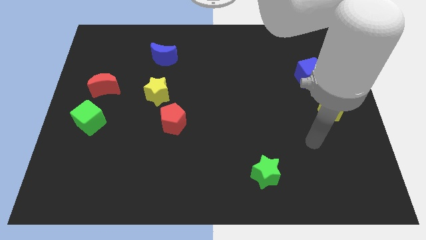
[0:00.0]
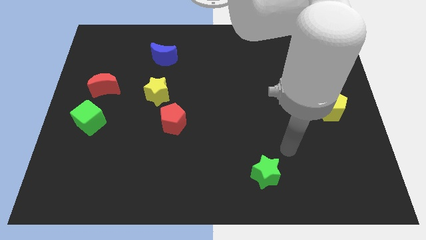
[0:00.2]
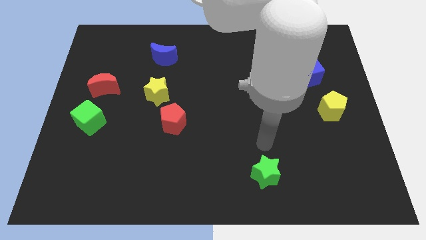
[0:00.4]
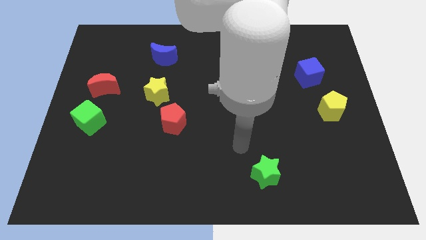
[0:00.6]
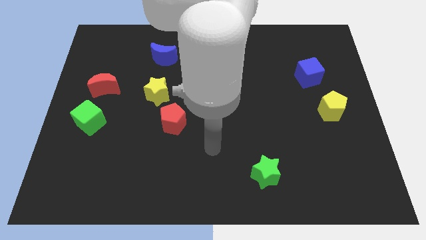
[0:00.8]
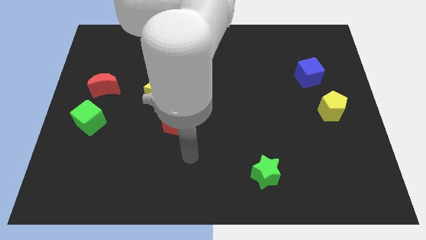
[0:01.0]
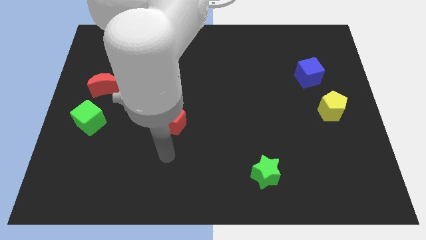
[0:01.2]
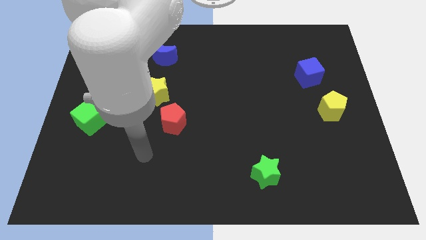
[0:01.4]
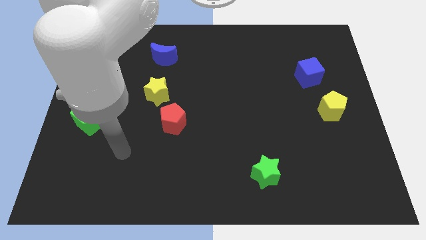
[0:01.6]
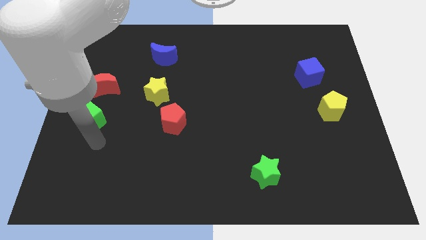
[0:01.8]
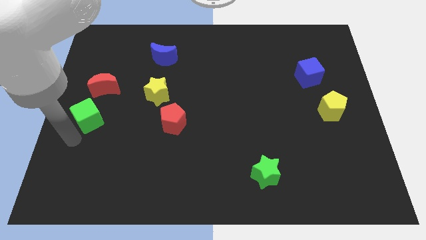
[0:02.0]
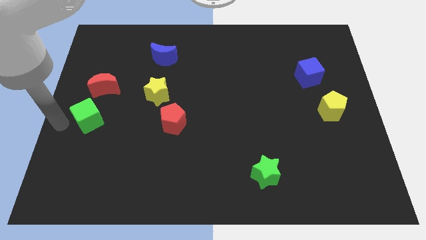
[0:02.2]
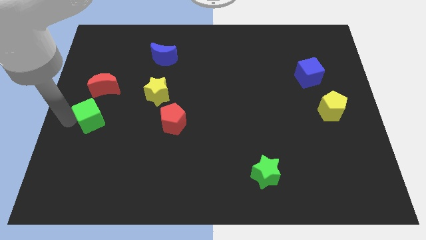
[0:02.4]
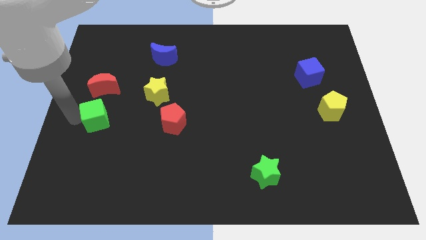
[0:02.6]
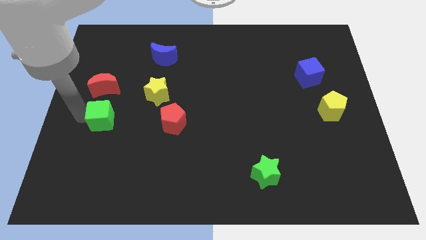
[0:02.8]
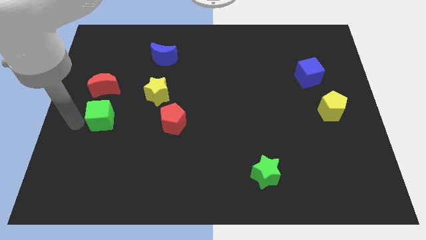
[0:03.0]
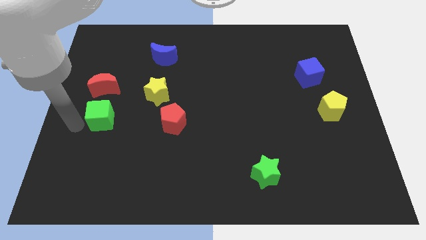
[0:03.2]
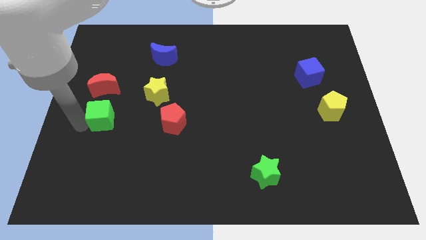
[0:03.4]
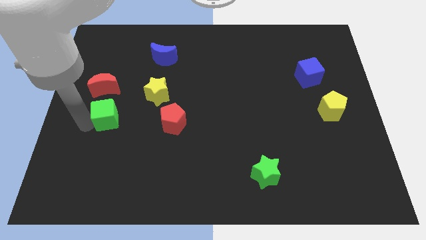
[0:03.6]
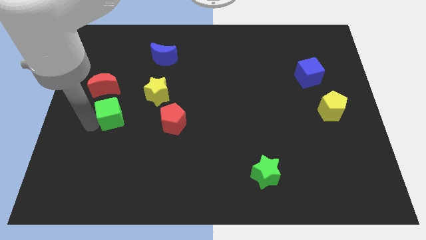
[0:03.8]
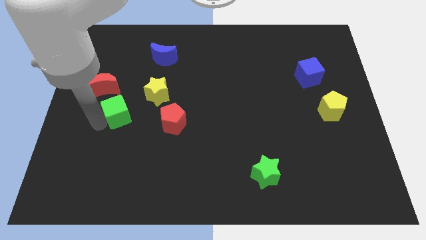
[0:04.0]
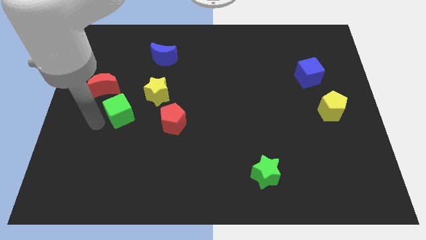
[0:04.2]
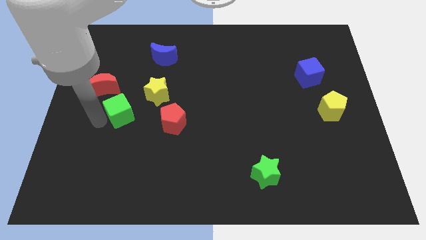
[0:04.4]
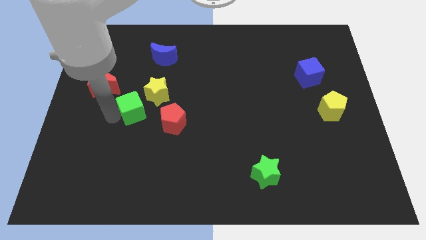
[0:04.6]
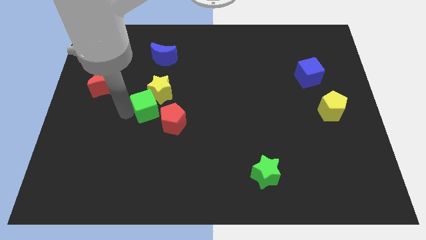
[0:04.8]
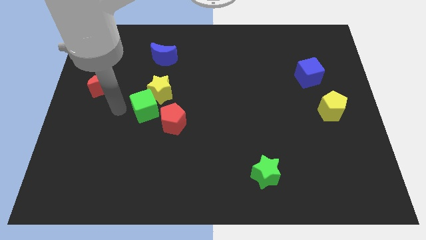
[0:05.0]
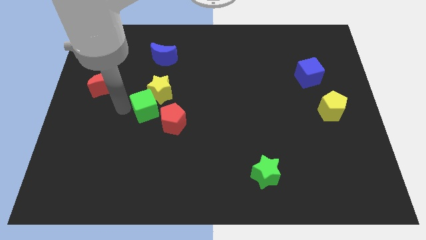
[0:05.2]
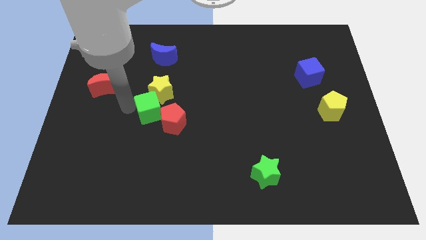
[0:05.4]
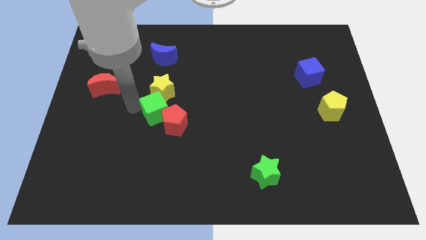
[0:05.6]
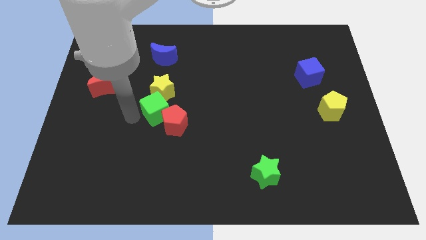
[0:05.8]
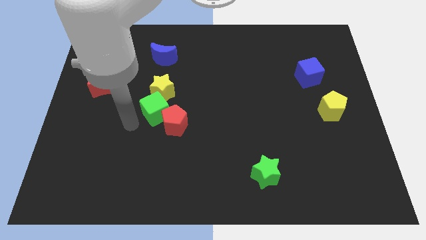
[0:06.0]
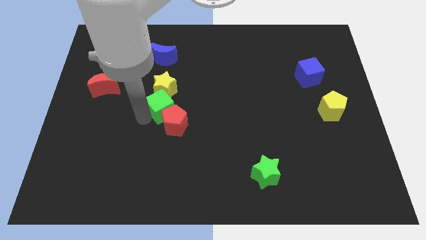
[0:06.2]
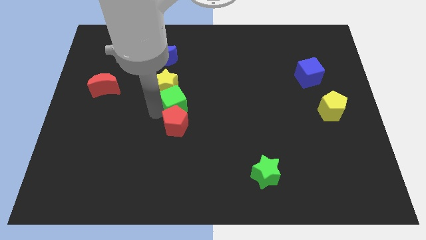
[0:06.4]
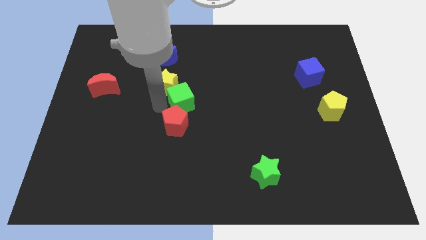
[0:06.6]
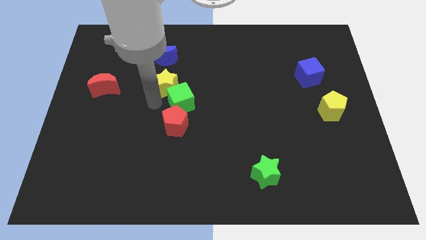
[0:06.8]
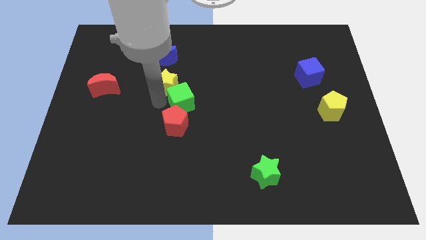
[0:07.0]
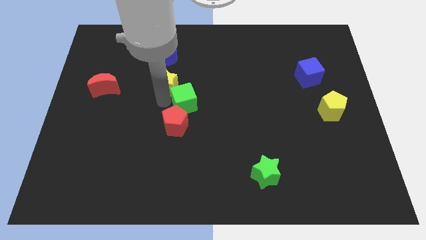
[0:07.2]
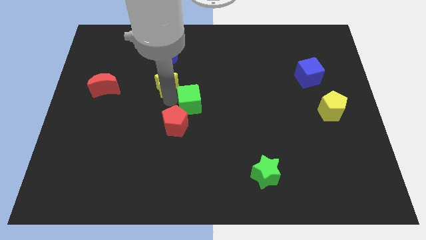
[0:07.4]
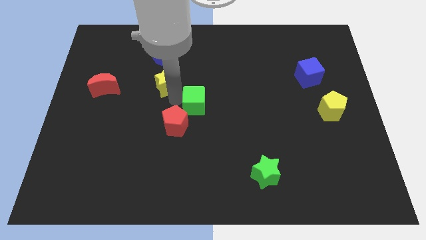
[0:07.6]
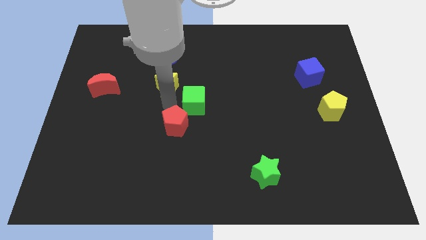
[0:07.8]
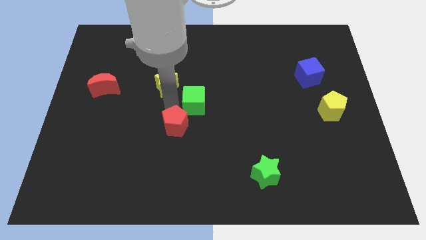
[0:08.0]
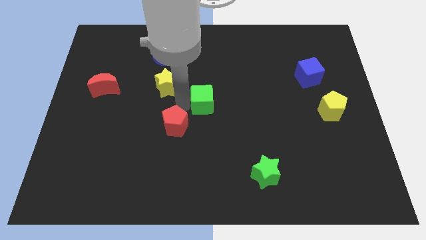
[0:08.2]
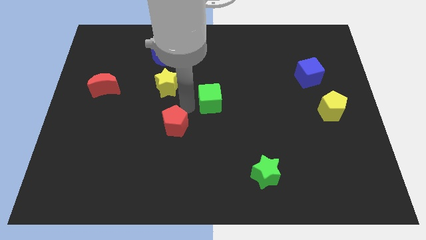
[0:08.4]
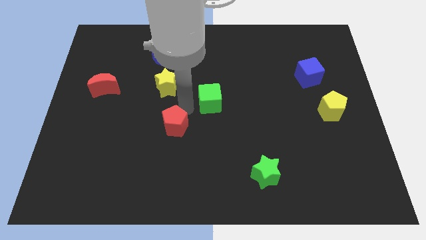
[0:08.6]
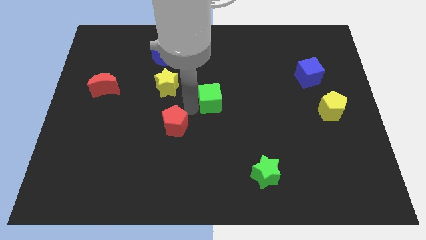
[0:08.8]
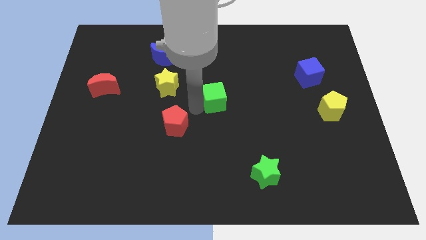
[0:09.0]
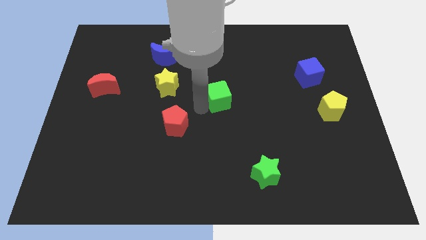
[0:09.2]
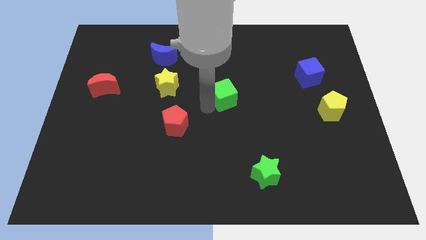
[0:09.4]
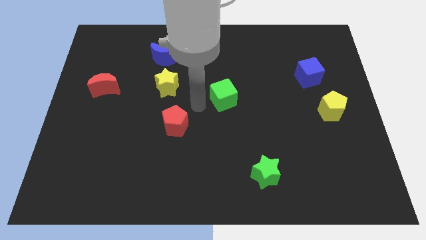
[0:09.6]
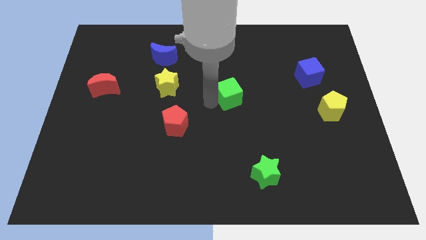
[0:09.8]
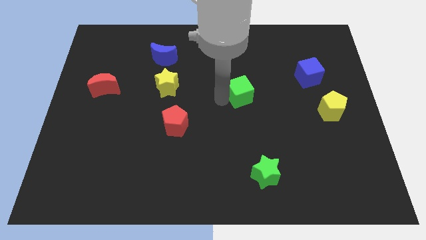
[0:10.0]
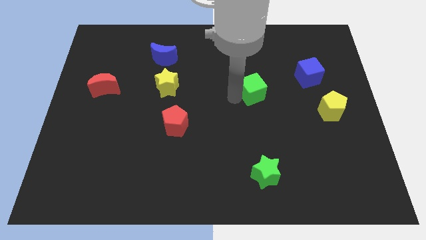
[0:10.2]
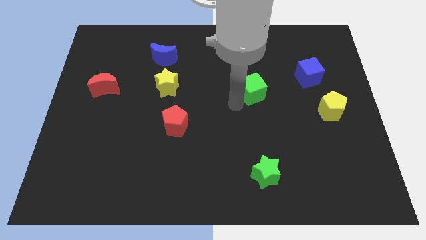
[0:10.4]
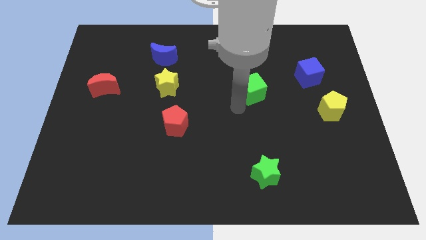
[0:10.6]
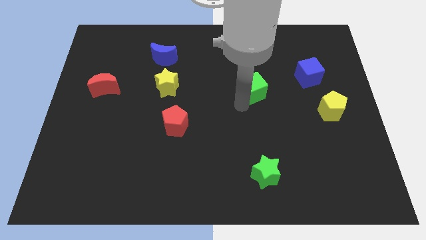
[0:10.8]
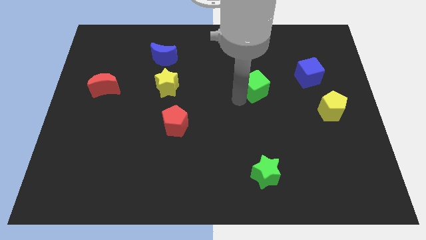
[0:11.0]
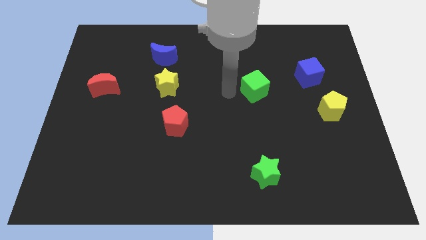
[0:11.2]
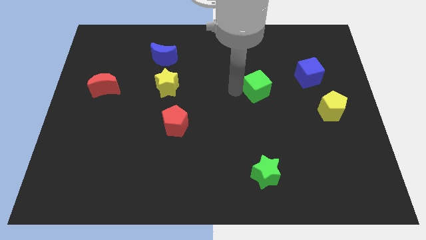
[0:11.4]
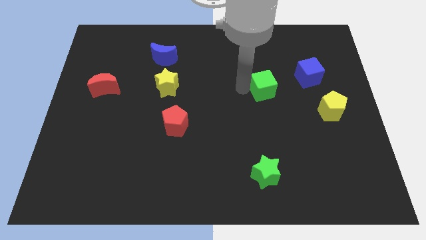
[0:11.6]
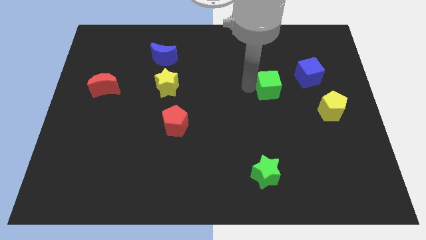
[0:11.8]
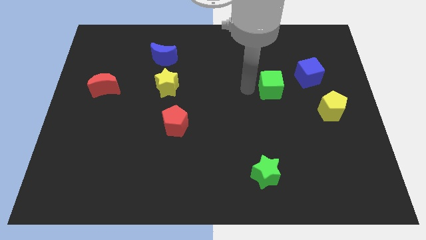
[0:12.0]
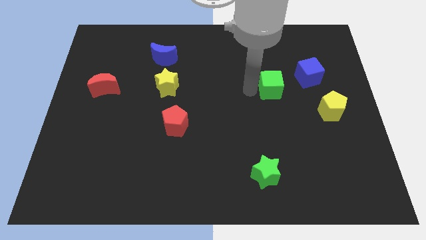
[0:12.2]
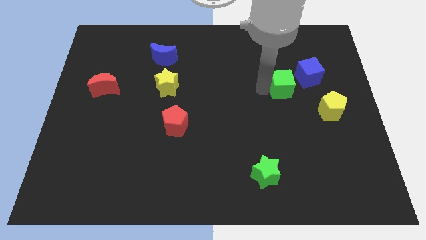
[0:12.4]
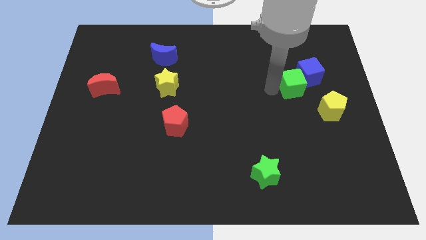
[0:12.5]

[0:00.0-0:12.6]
put the green cube towards the blue cube

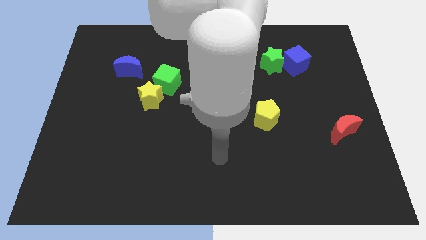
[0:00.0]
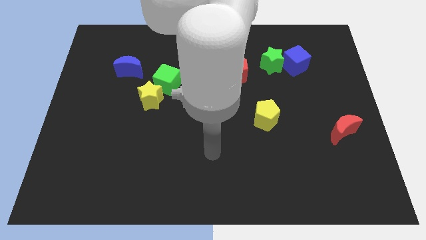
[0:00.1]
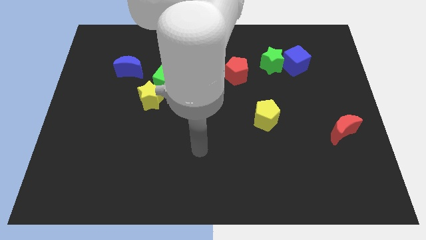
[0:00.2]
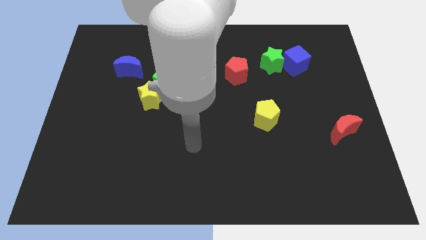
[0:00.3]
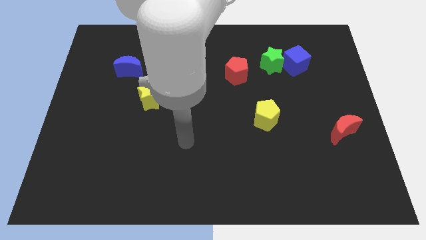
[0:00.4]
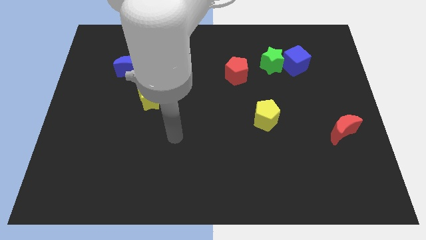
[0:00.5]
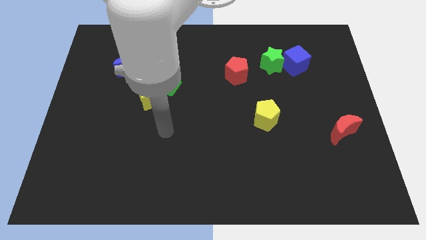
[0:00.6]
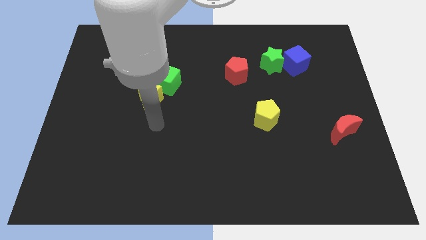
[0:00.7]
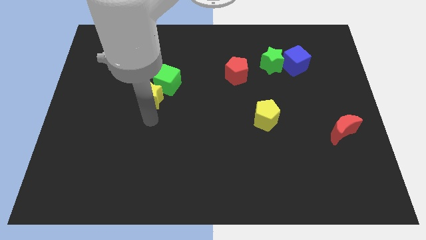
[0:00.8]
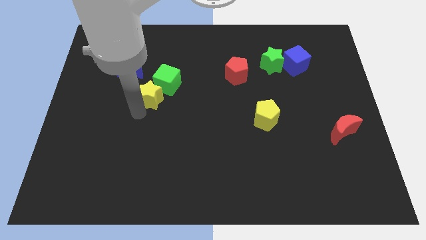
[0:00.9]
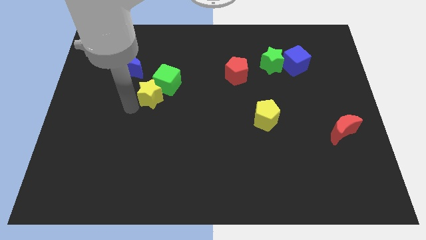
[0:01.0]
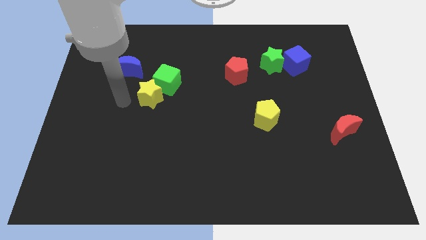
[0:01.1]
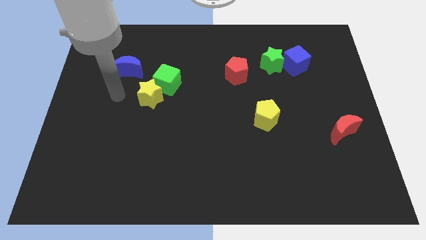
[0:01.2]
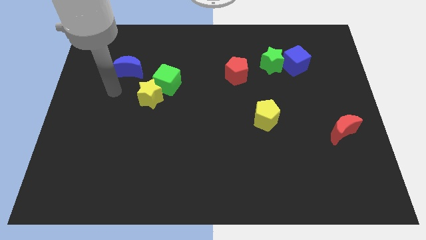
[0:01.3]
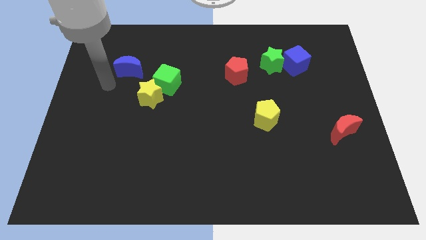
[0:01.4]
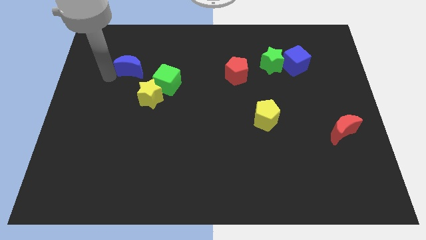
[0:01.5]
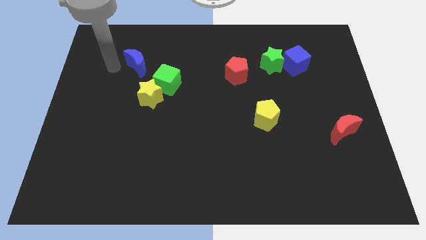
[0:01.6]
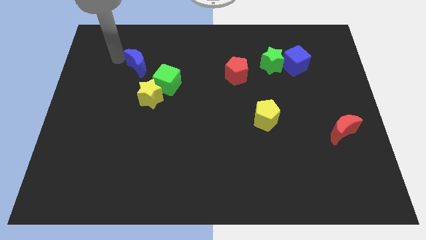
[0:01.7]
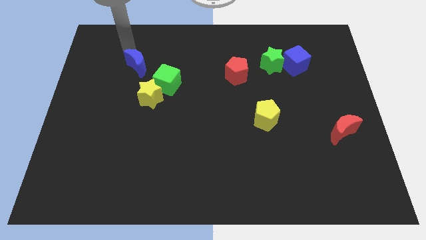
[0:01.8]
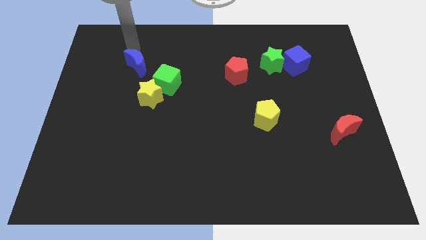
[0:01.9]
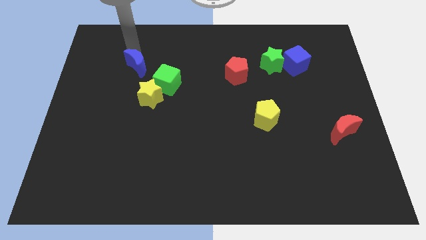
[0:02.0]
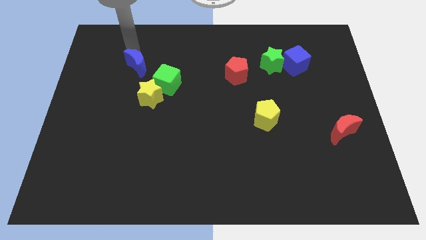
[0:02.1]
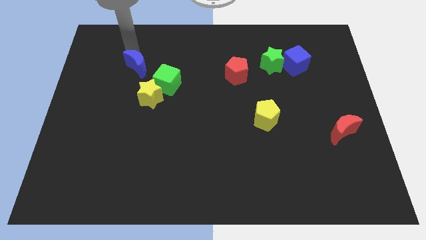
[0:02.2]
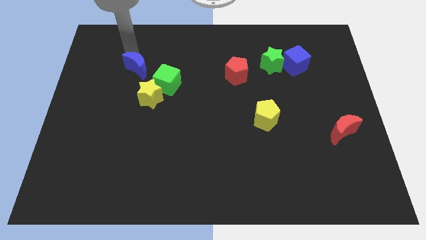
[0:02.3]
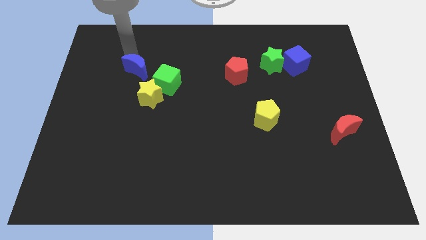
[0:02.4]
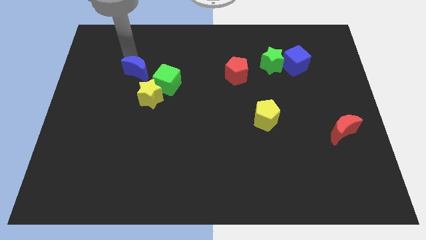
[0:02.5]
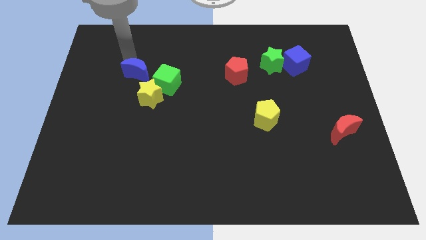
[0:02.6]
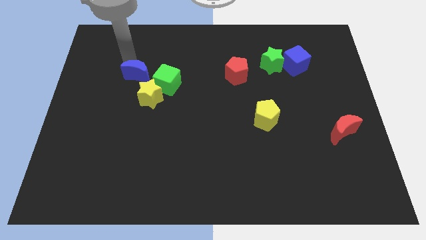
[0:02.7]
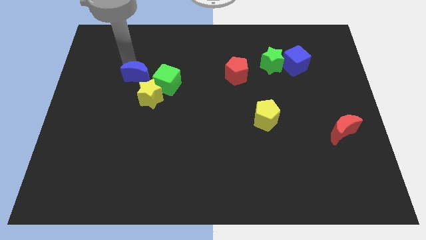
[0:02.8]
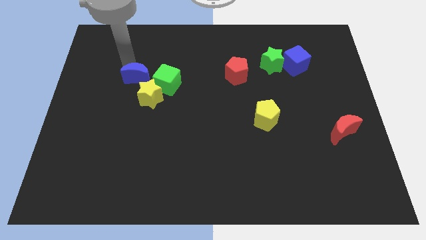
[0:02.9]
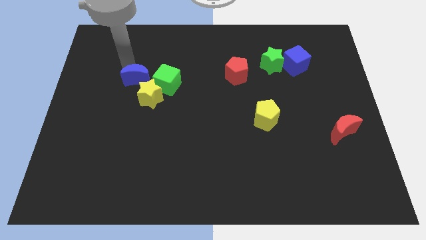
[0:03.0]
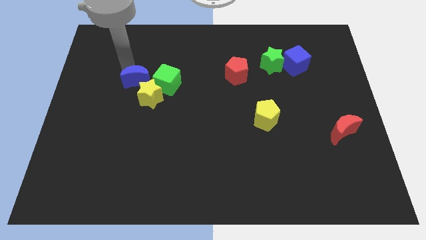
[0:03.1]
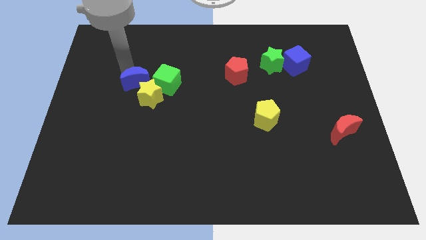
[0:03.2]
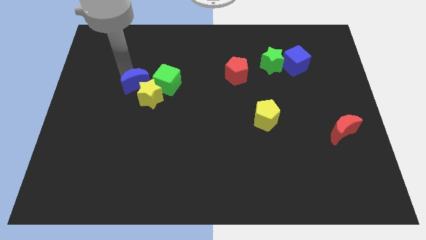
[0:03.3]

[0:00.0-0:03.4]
move the blue moon close to the yellow star
